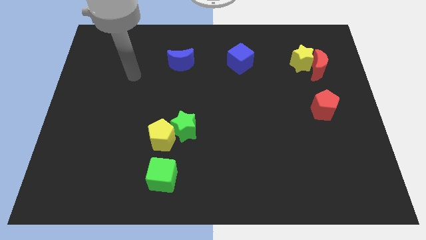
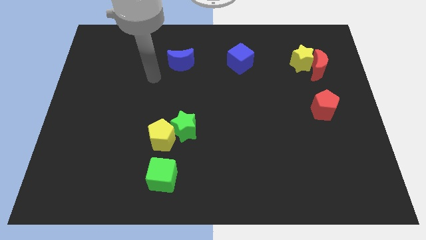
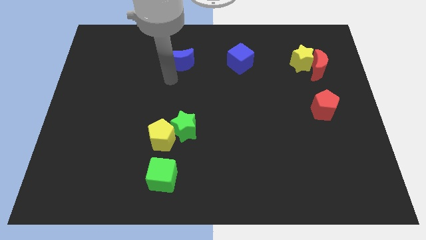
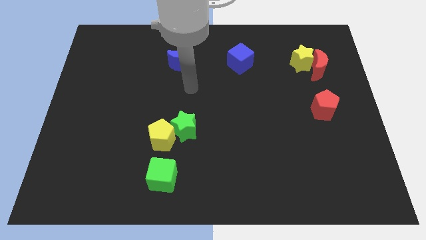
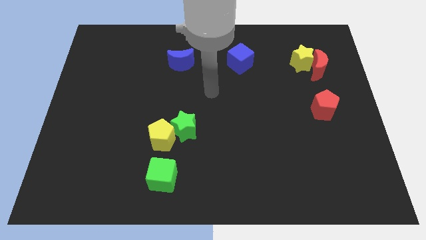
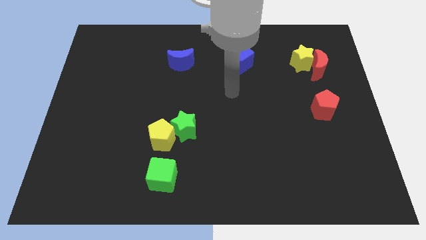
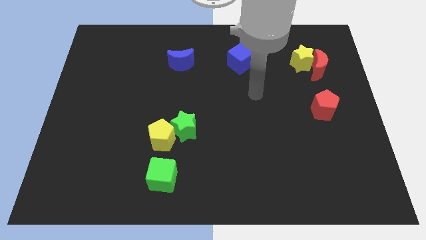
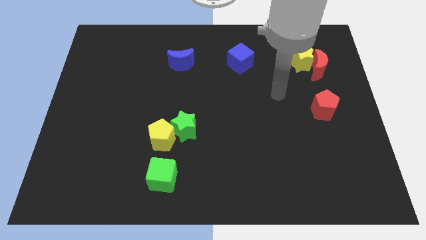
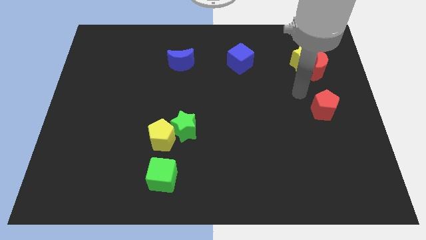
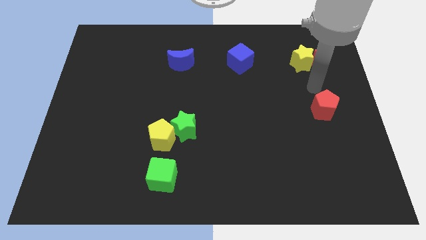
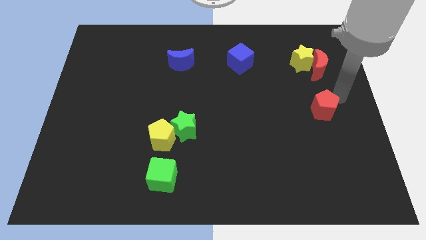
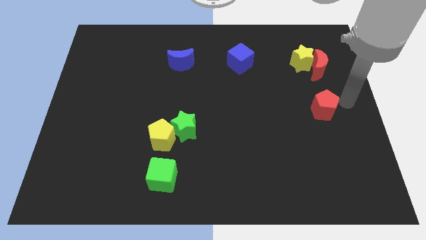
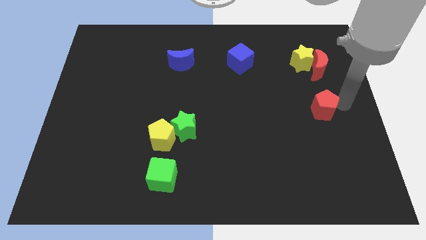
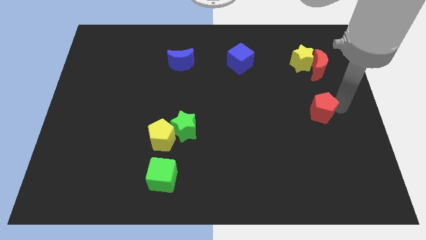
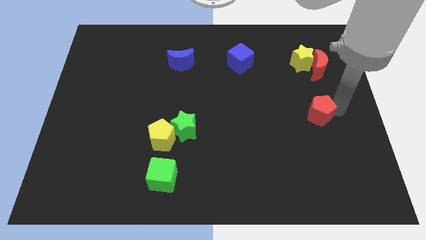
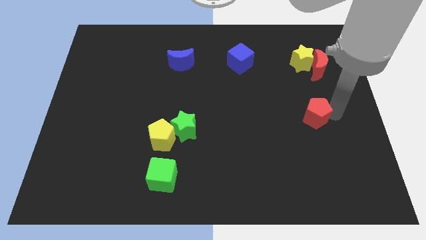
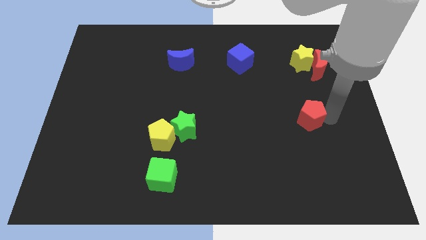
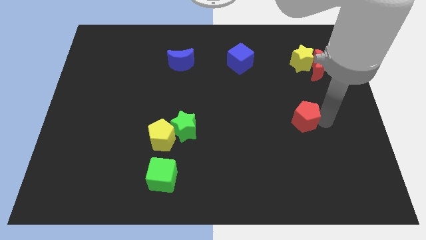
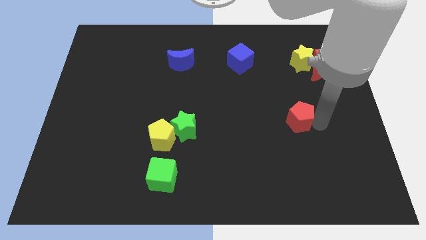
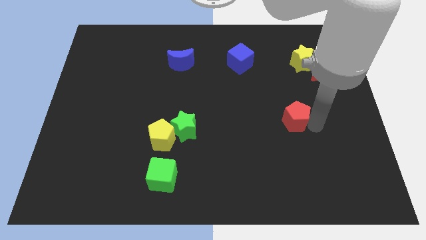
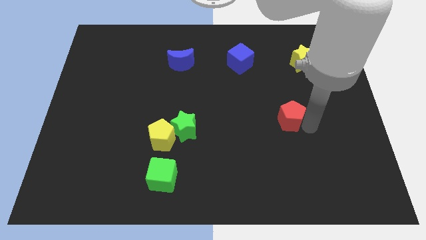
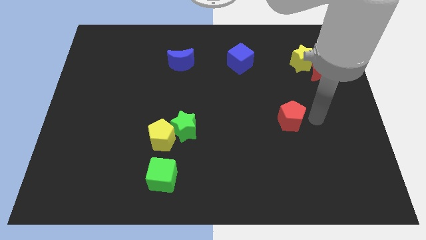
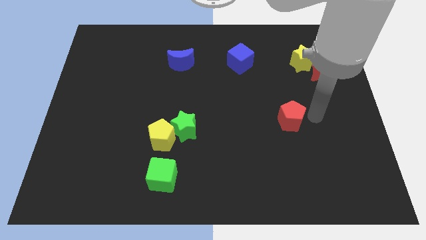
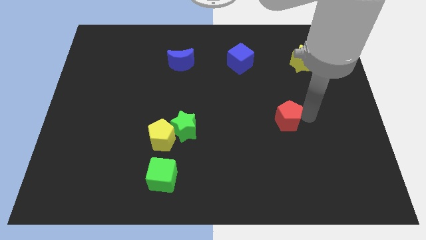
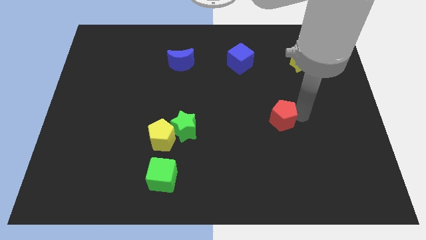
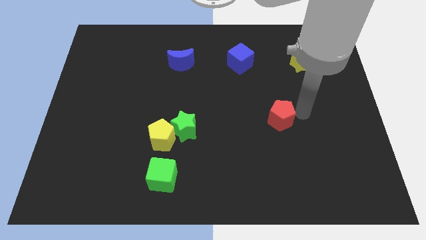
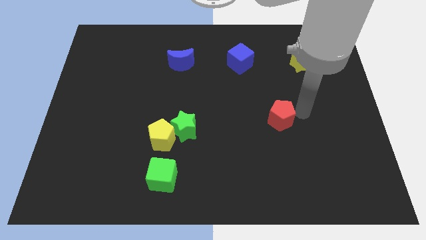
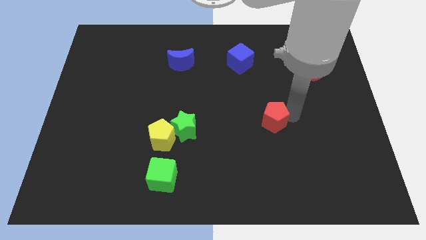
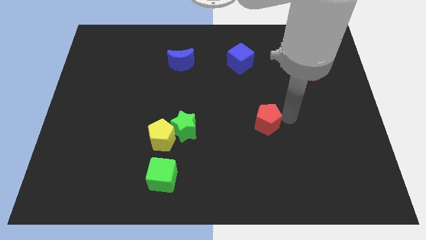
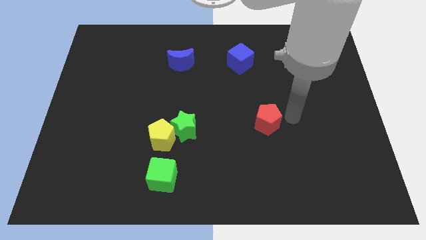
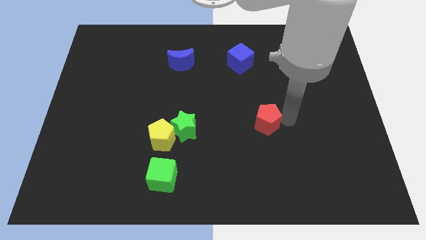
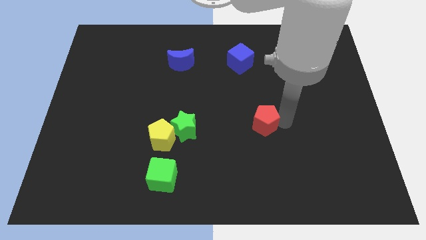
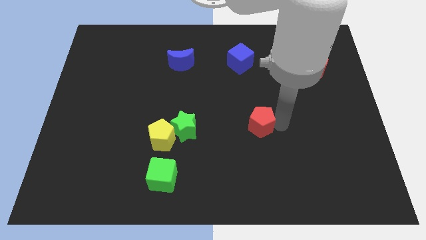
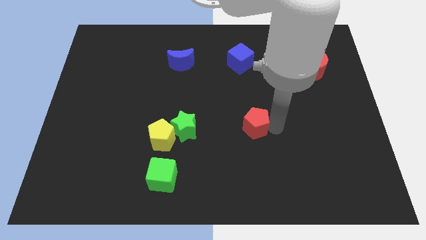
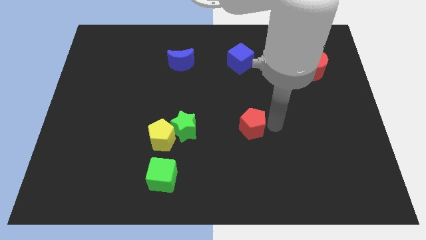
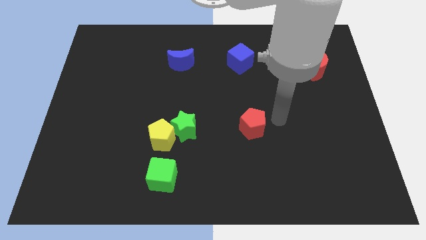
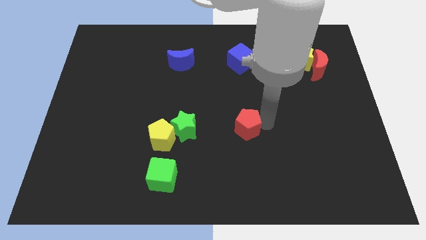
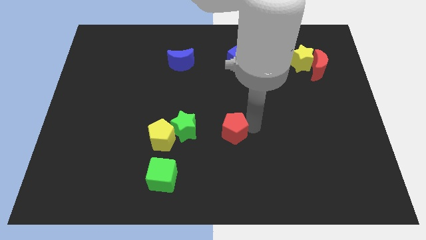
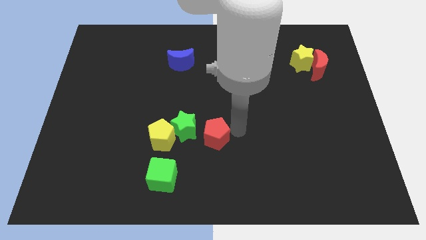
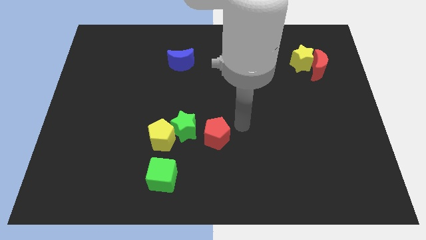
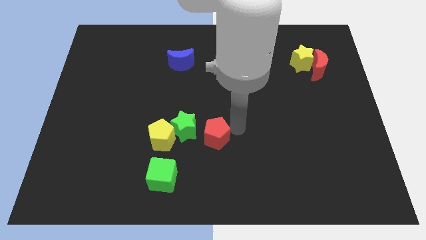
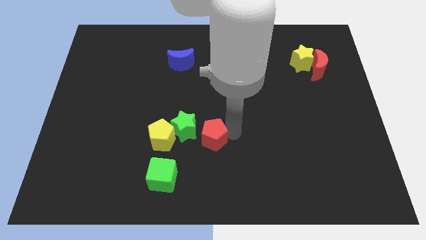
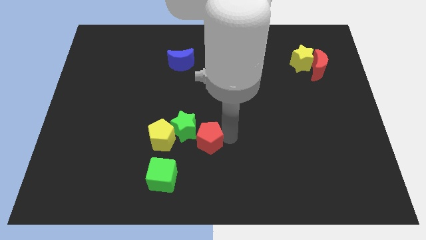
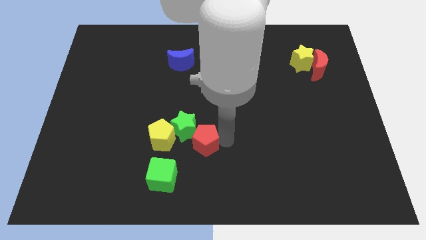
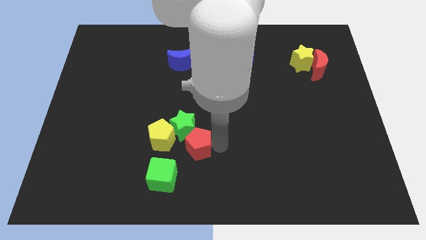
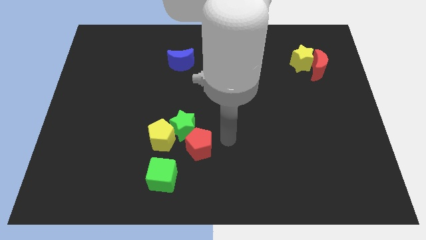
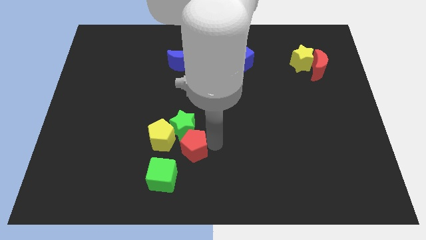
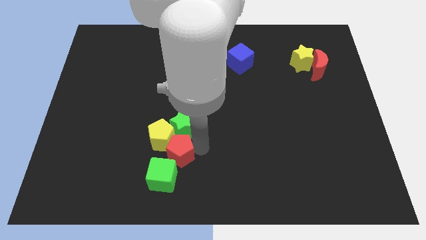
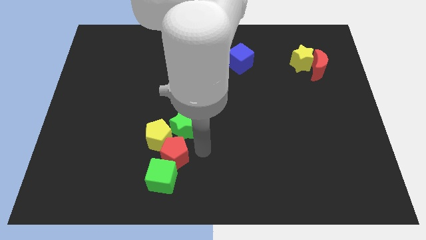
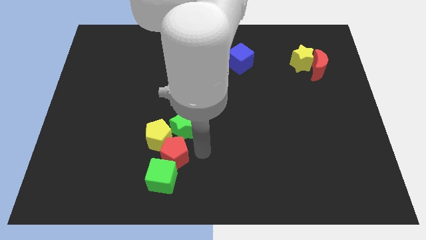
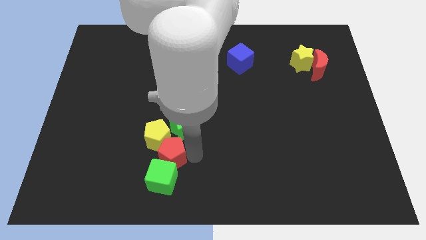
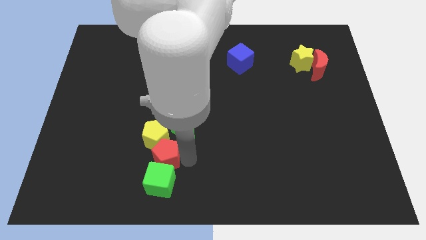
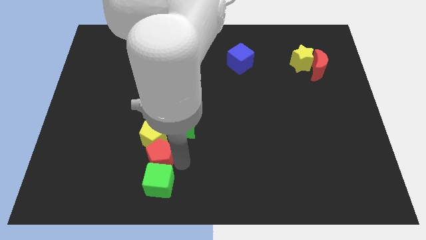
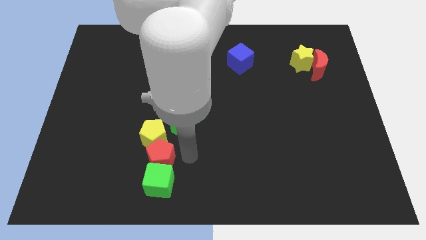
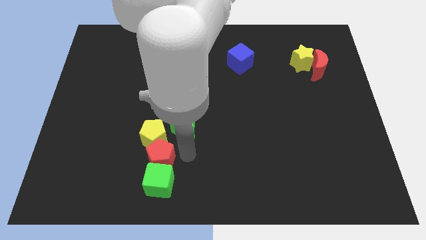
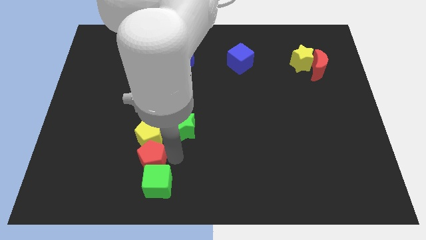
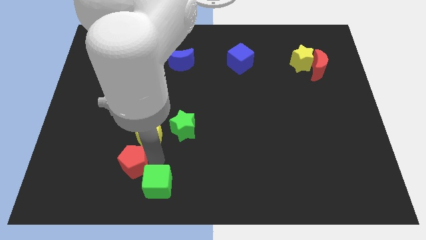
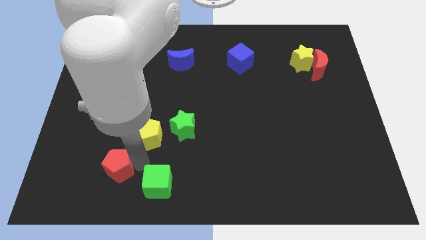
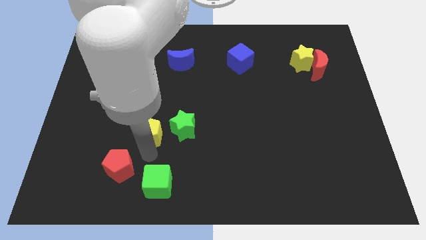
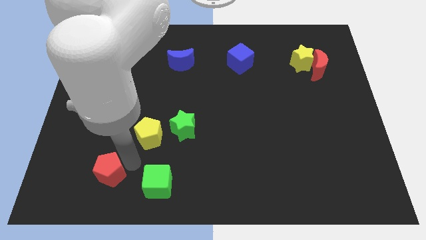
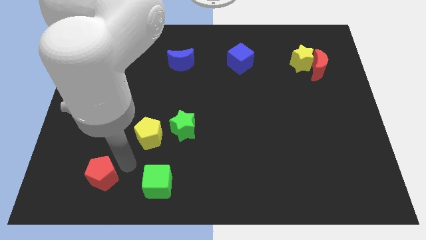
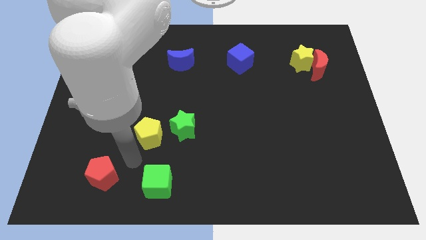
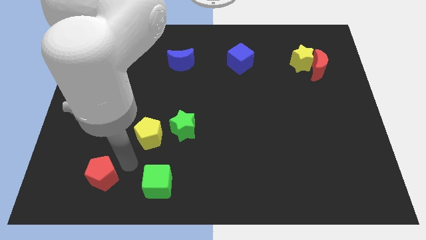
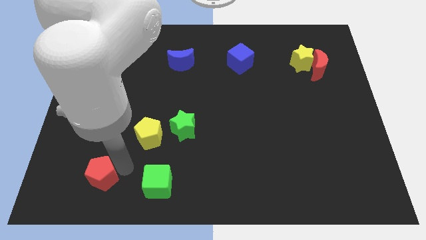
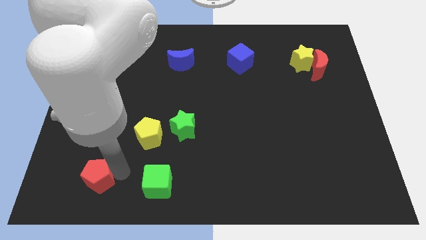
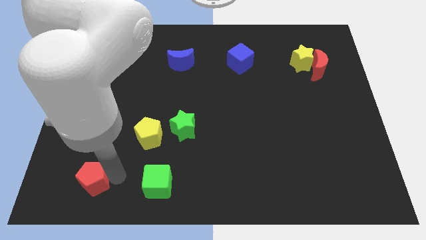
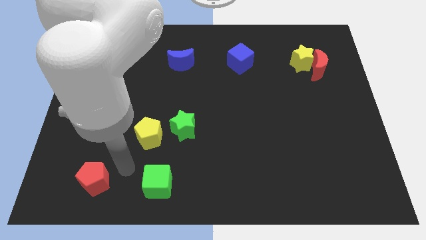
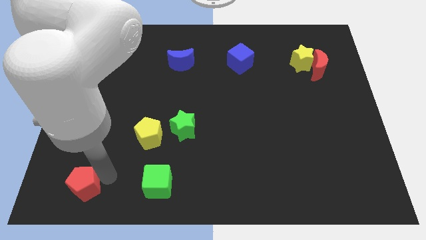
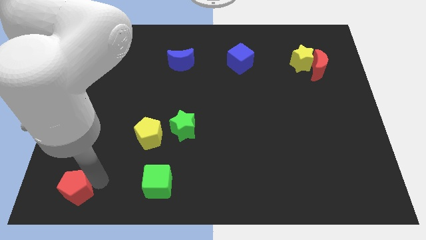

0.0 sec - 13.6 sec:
push the red pentagon to the bottom left of the board
